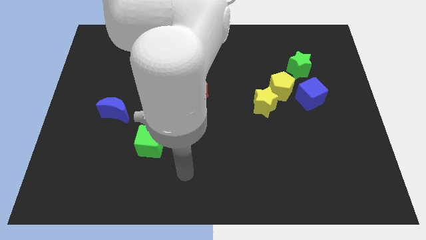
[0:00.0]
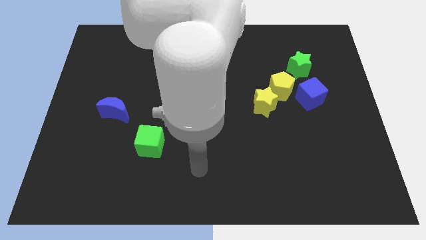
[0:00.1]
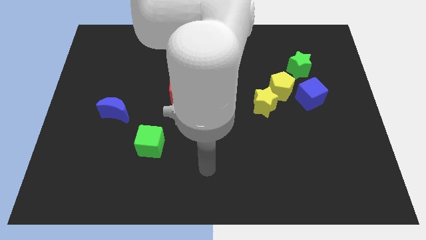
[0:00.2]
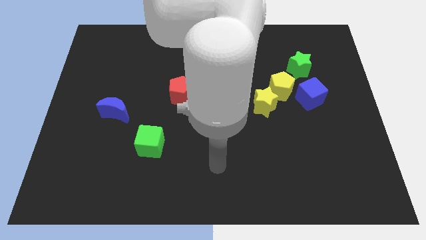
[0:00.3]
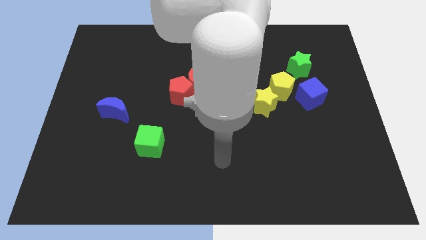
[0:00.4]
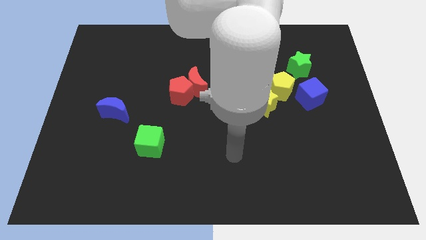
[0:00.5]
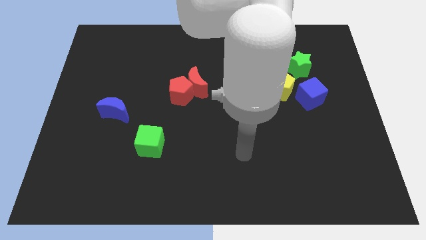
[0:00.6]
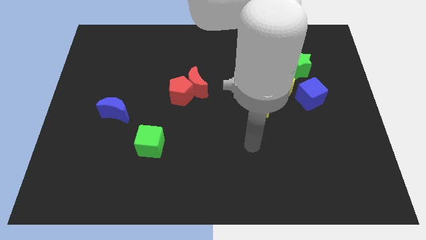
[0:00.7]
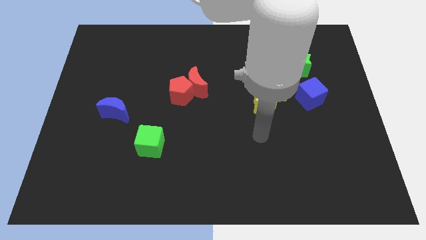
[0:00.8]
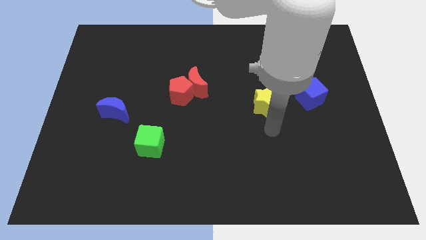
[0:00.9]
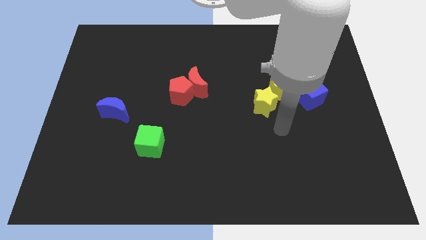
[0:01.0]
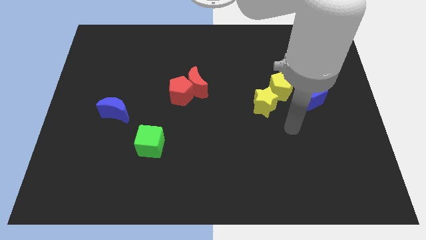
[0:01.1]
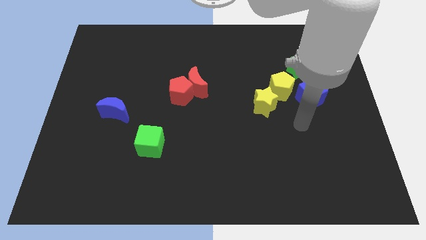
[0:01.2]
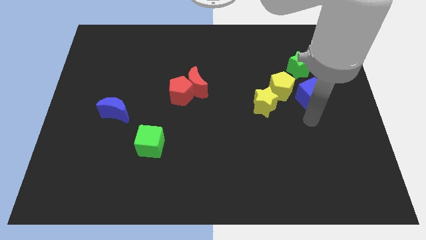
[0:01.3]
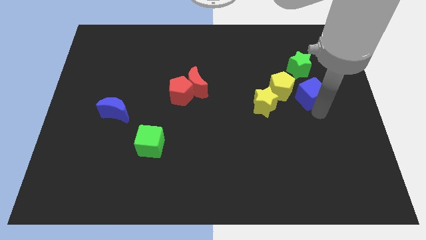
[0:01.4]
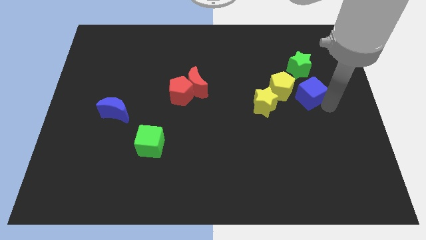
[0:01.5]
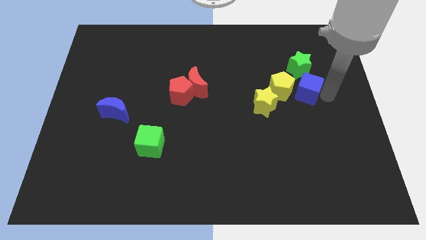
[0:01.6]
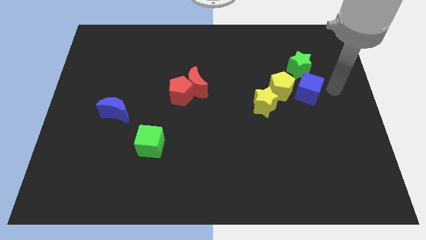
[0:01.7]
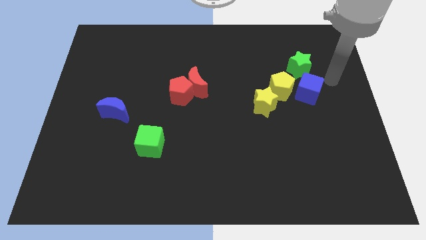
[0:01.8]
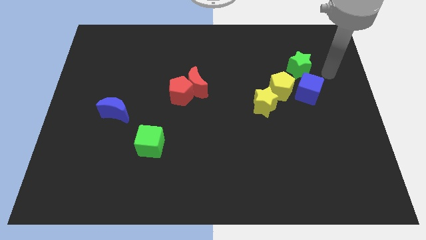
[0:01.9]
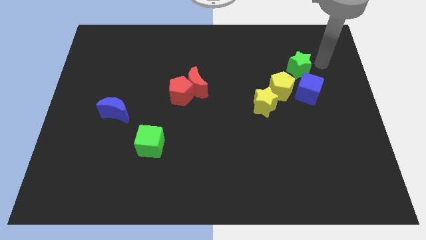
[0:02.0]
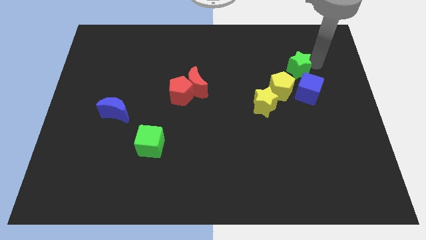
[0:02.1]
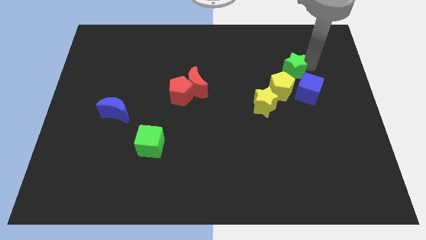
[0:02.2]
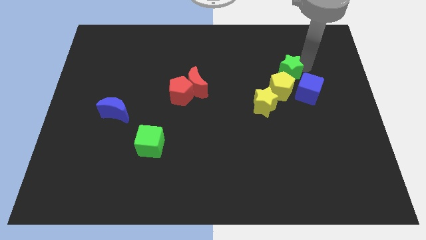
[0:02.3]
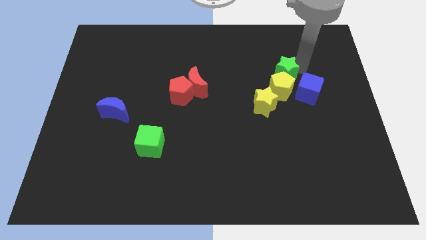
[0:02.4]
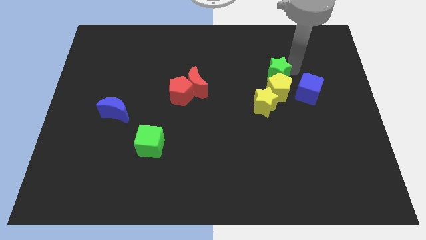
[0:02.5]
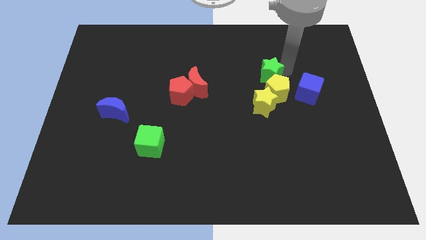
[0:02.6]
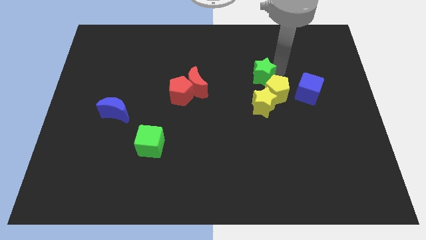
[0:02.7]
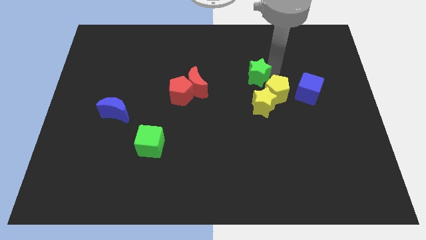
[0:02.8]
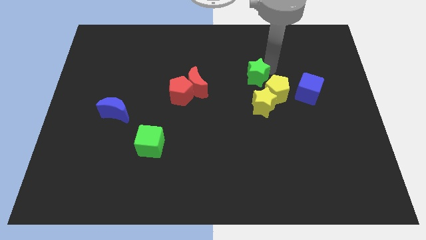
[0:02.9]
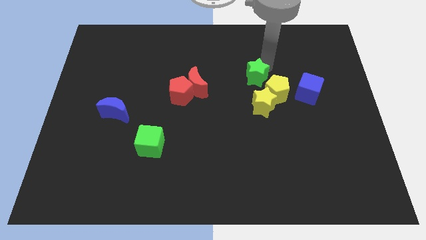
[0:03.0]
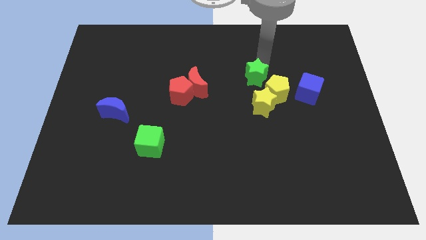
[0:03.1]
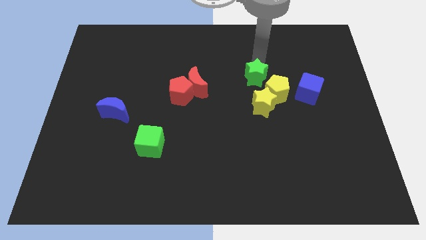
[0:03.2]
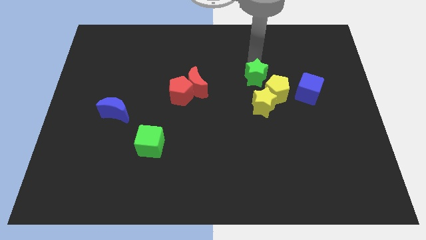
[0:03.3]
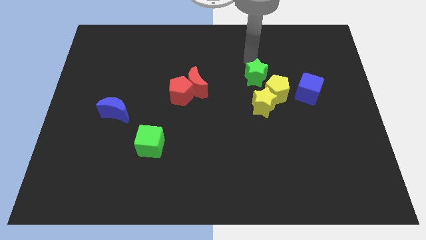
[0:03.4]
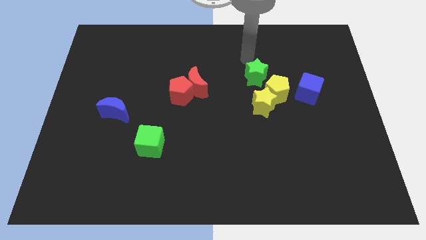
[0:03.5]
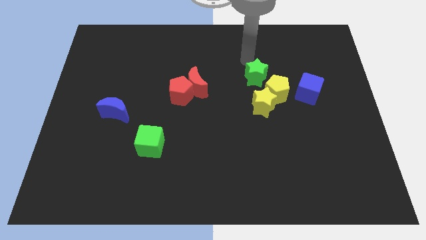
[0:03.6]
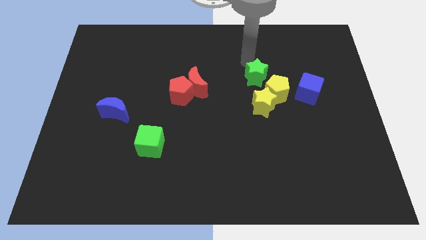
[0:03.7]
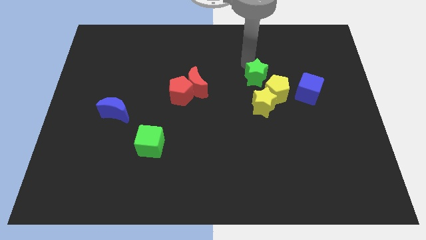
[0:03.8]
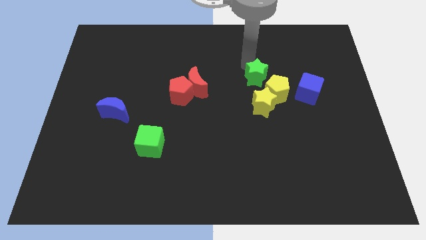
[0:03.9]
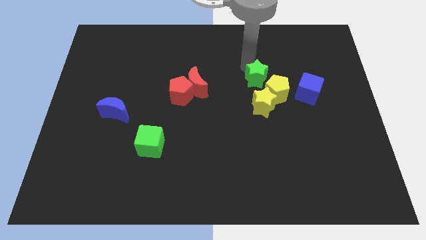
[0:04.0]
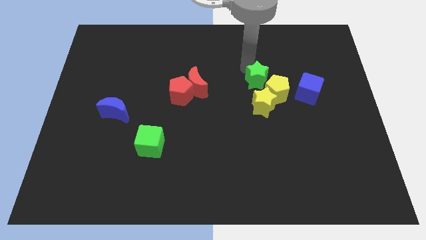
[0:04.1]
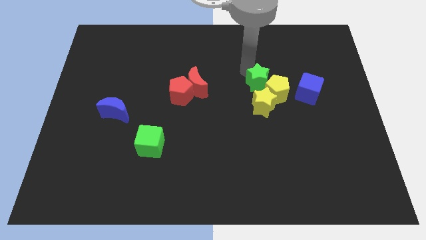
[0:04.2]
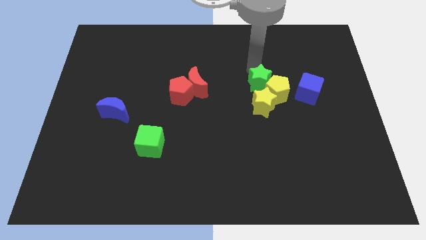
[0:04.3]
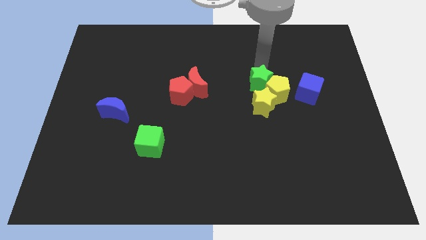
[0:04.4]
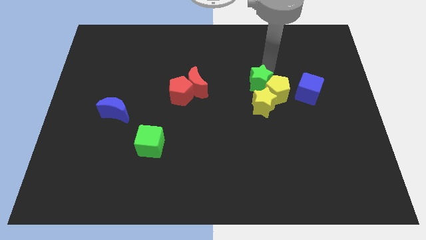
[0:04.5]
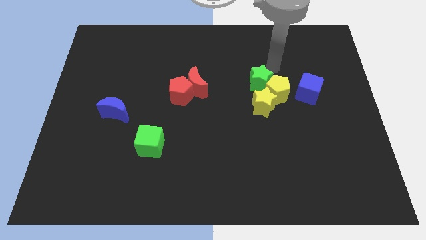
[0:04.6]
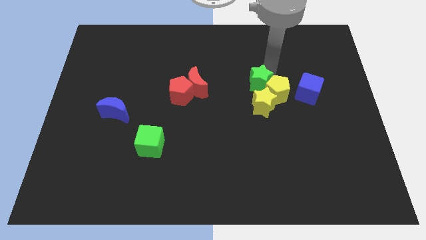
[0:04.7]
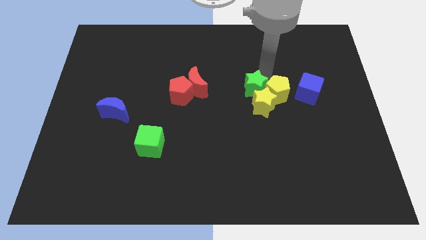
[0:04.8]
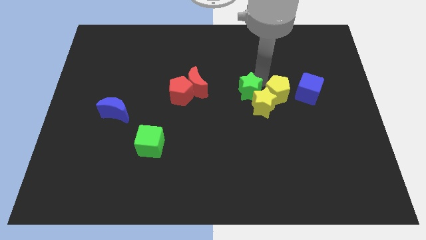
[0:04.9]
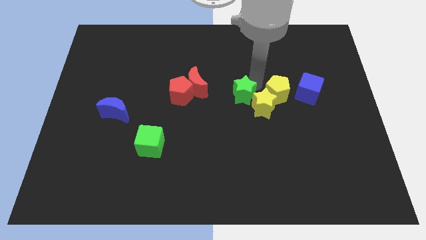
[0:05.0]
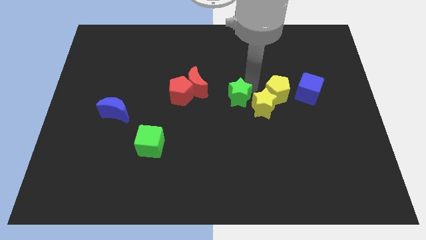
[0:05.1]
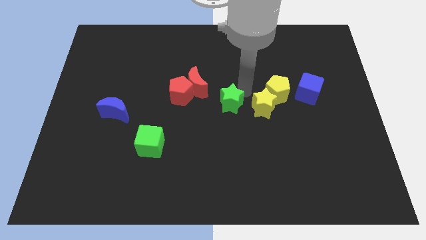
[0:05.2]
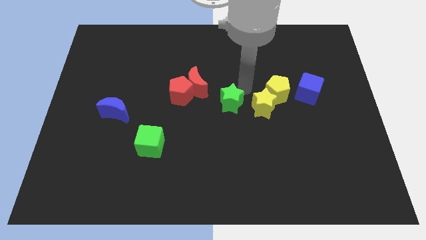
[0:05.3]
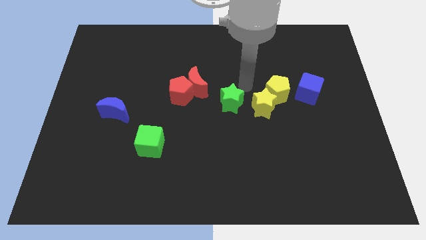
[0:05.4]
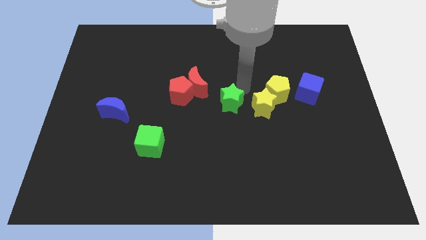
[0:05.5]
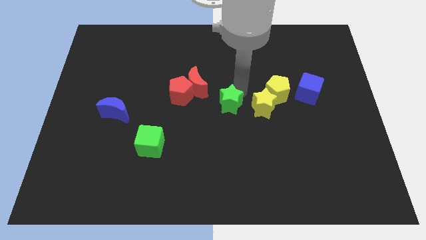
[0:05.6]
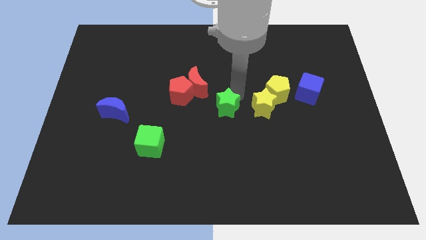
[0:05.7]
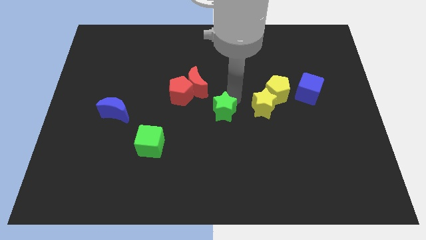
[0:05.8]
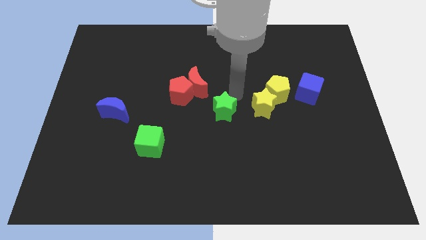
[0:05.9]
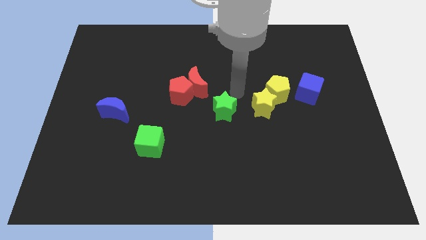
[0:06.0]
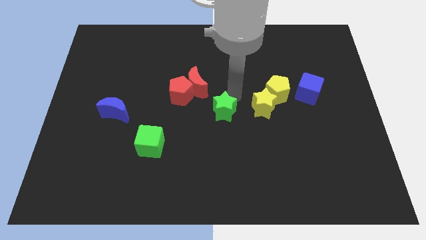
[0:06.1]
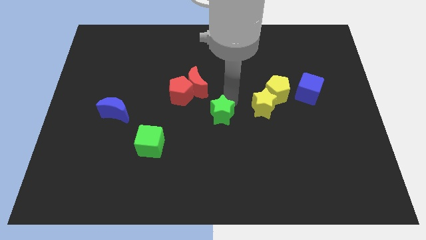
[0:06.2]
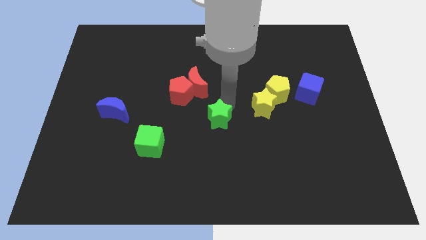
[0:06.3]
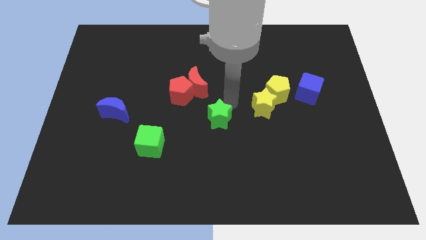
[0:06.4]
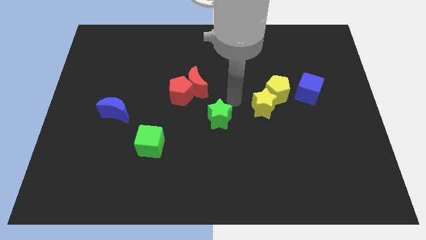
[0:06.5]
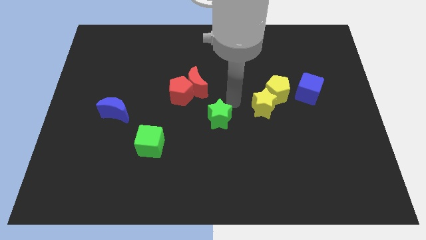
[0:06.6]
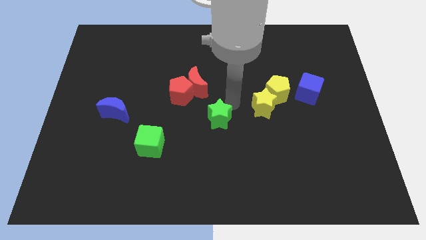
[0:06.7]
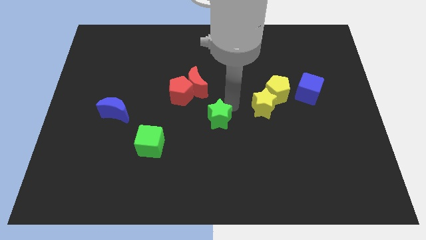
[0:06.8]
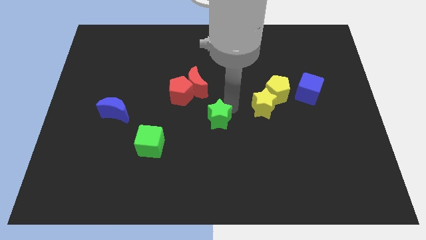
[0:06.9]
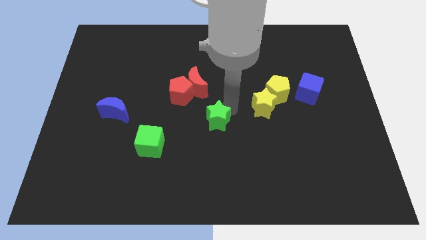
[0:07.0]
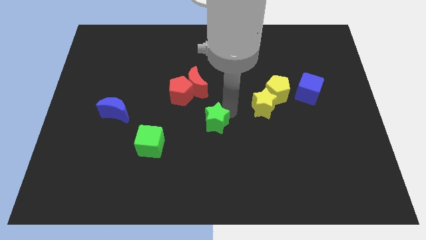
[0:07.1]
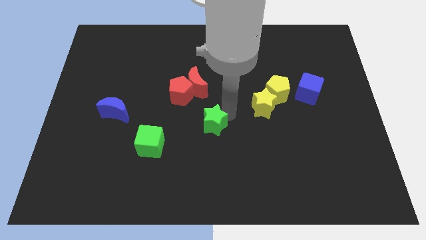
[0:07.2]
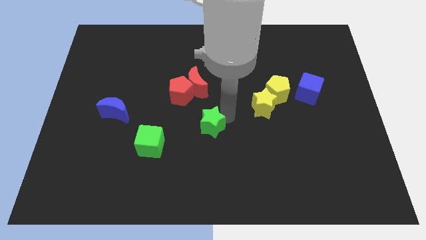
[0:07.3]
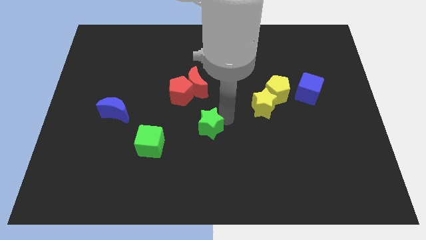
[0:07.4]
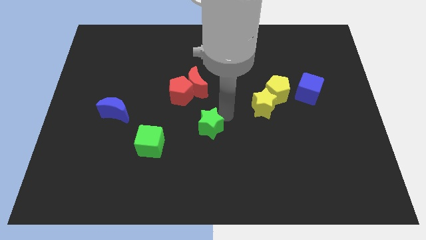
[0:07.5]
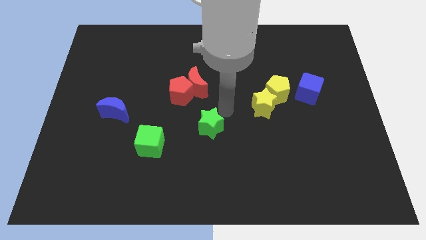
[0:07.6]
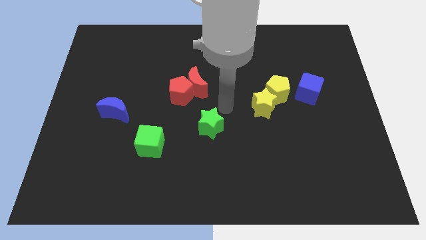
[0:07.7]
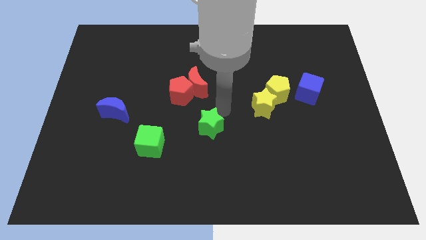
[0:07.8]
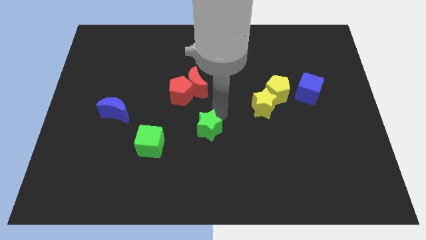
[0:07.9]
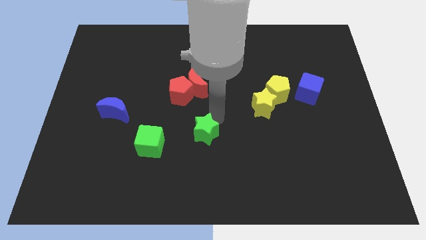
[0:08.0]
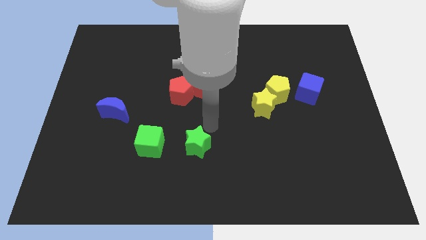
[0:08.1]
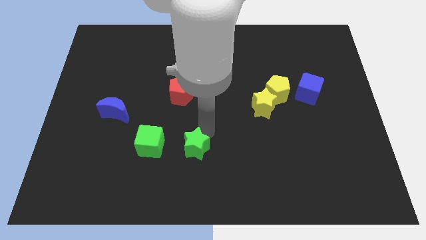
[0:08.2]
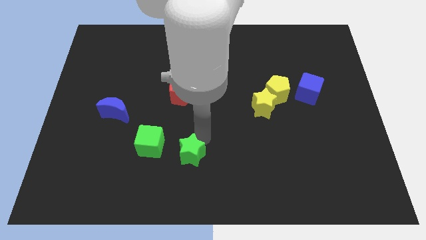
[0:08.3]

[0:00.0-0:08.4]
slide the green star to the bottom right of the green cube
